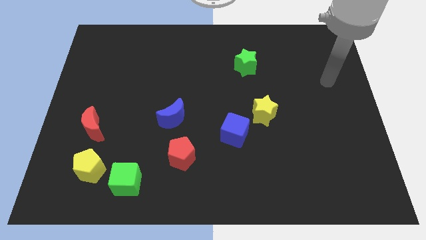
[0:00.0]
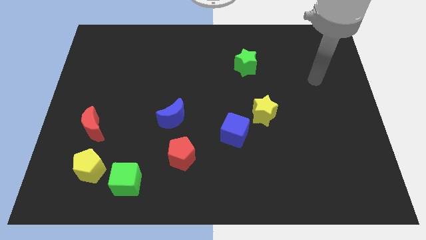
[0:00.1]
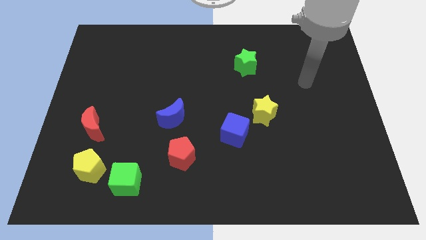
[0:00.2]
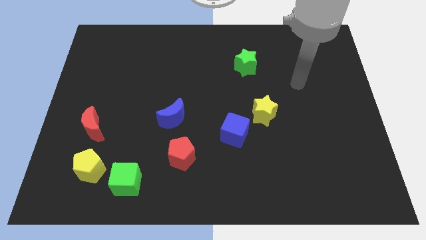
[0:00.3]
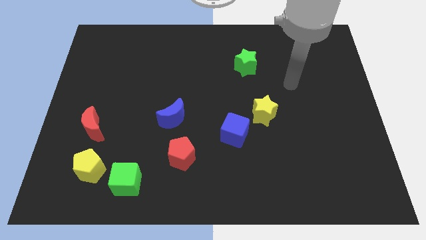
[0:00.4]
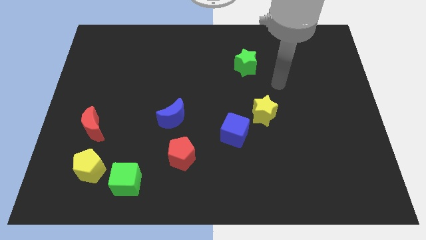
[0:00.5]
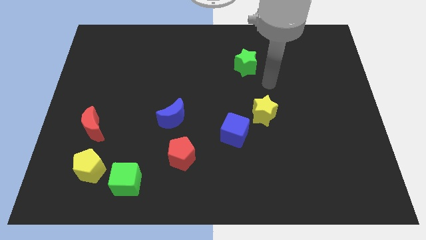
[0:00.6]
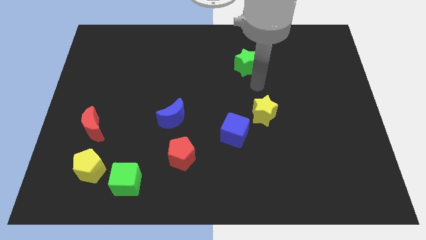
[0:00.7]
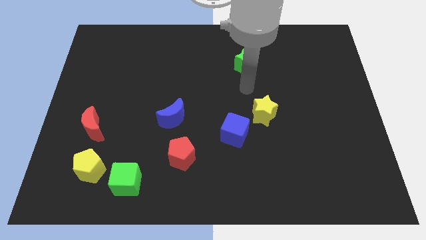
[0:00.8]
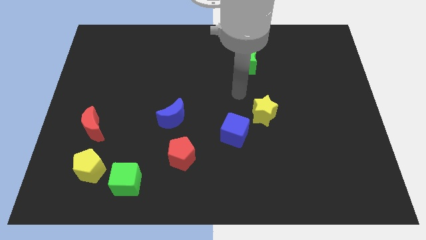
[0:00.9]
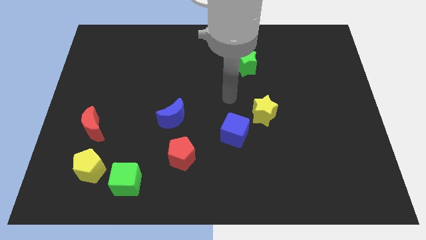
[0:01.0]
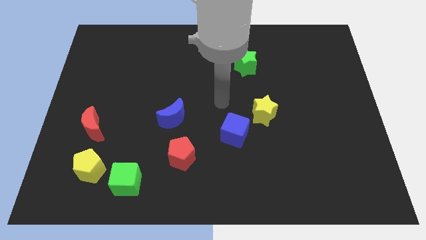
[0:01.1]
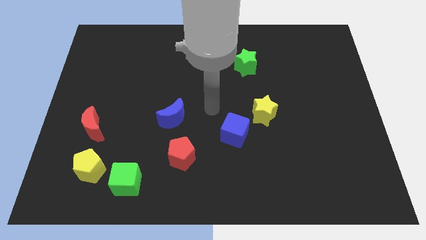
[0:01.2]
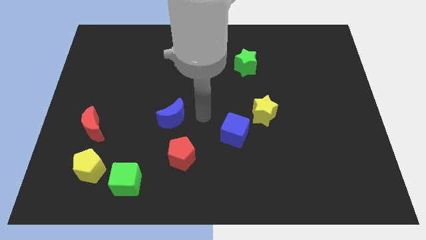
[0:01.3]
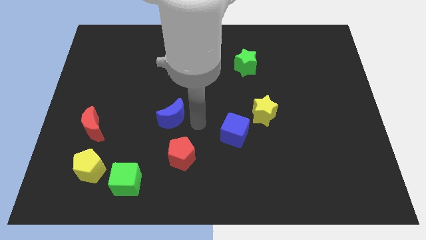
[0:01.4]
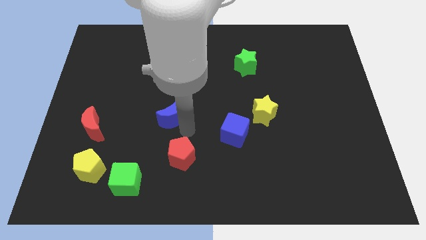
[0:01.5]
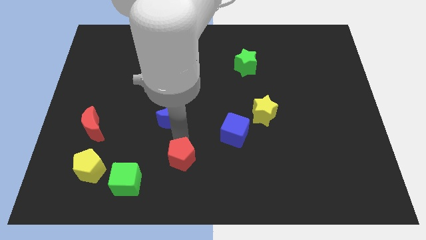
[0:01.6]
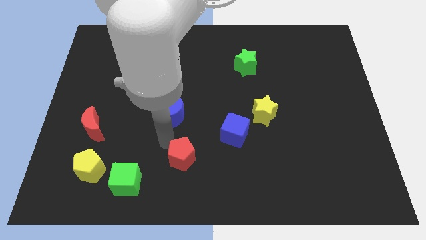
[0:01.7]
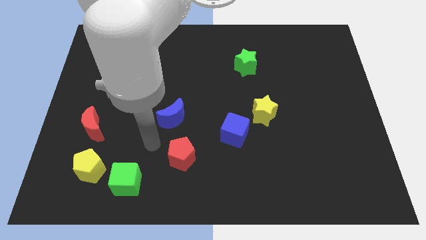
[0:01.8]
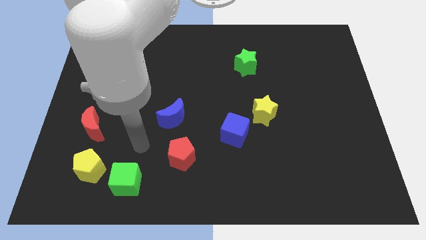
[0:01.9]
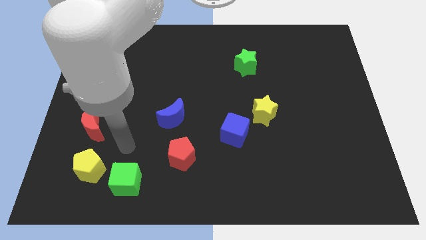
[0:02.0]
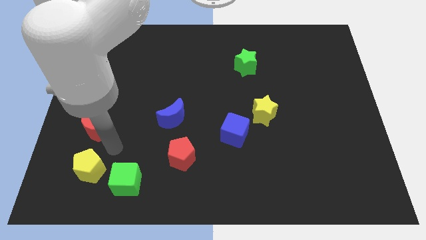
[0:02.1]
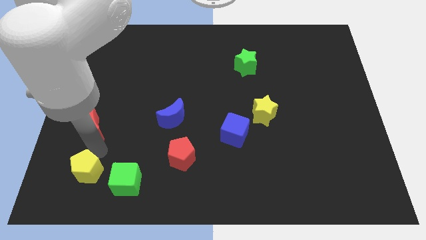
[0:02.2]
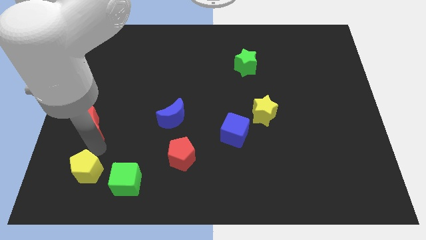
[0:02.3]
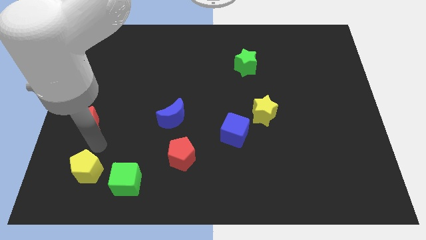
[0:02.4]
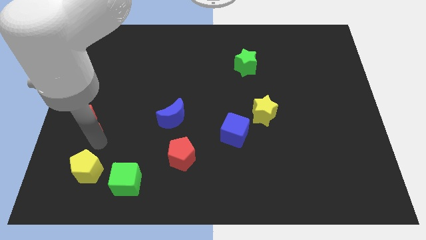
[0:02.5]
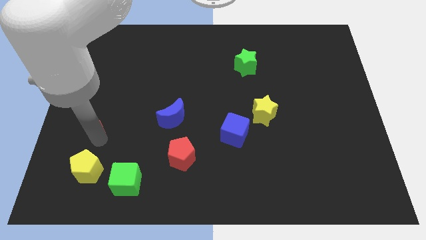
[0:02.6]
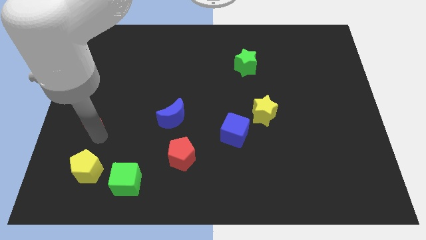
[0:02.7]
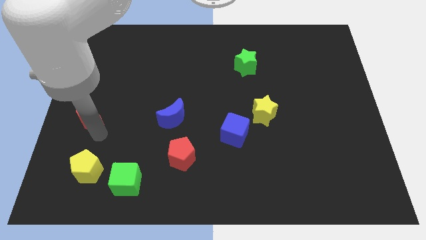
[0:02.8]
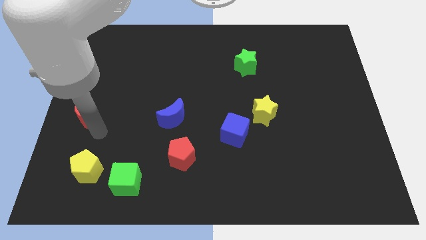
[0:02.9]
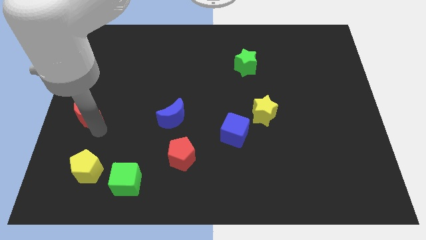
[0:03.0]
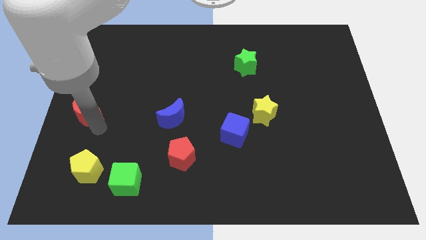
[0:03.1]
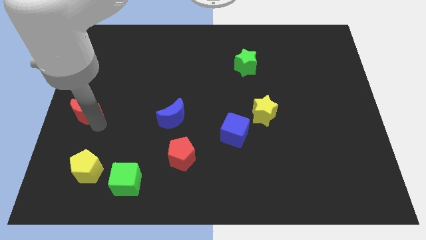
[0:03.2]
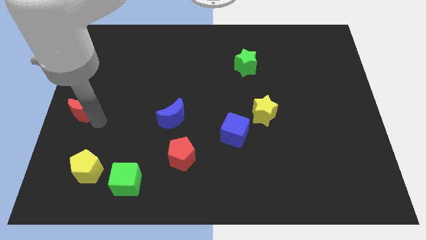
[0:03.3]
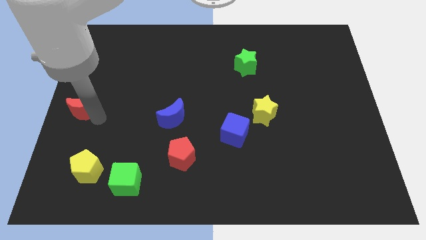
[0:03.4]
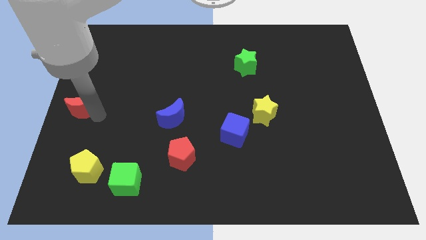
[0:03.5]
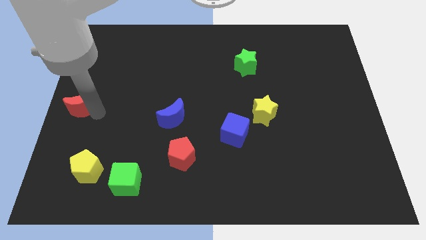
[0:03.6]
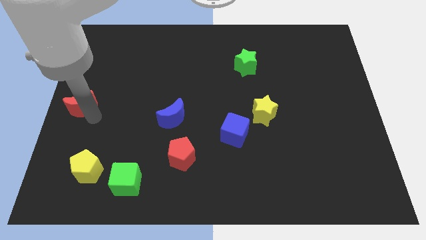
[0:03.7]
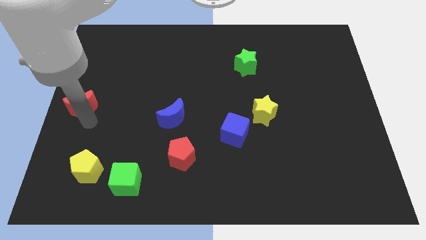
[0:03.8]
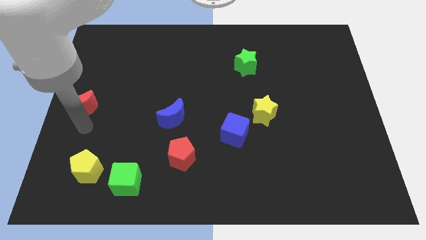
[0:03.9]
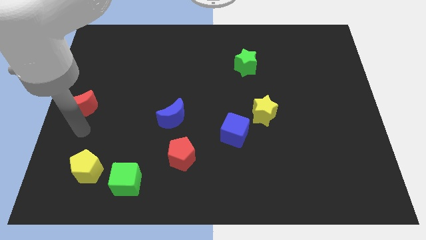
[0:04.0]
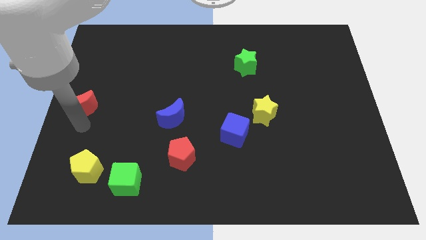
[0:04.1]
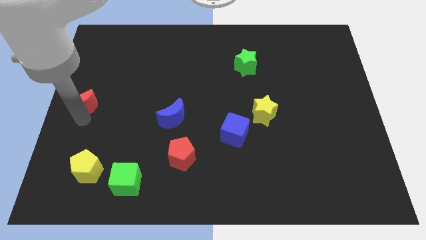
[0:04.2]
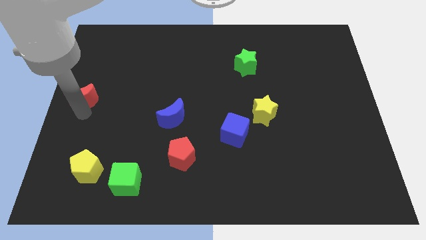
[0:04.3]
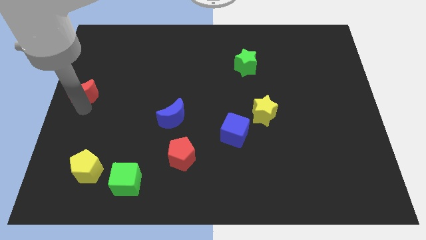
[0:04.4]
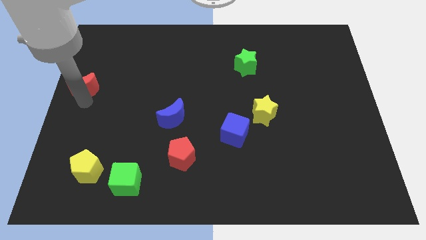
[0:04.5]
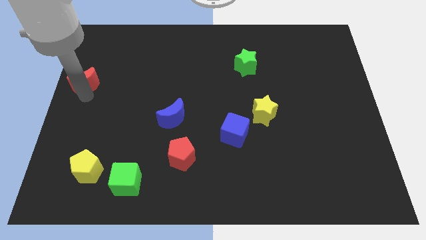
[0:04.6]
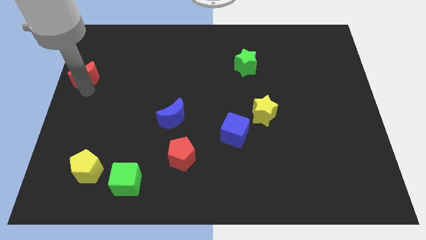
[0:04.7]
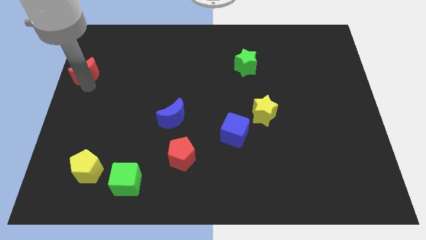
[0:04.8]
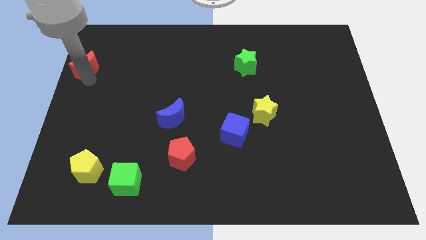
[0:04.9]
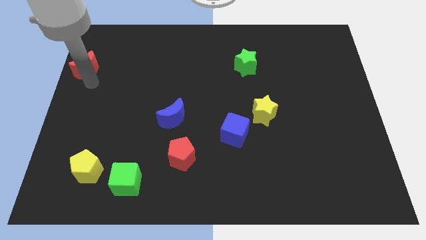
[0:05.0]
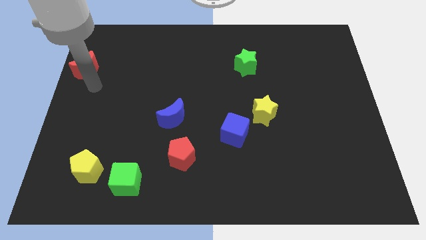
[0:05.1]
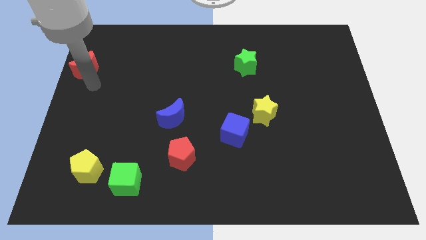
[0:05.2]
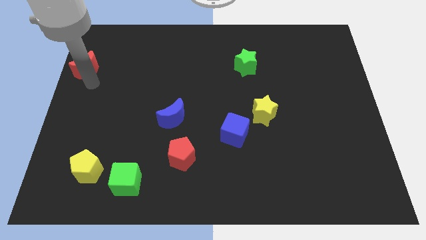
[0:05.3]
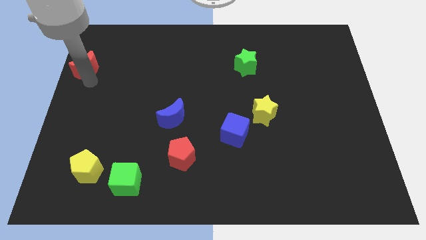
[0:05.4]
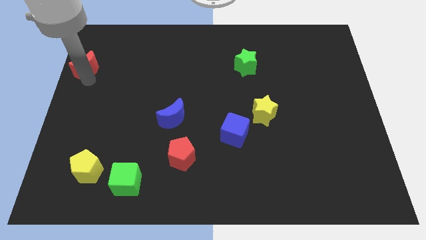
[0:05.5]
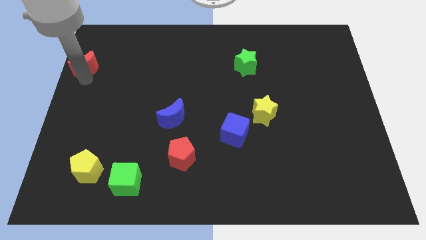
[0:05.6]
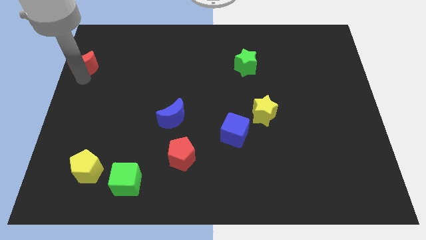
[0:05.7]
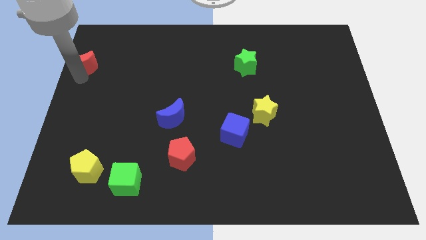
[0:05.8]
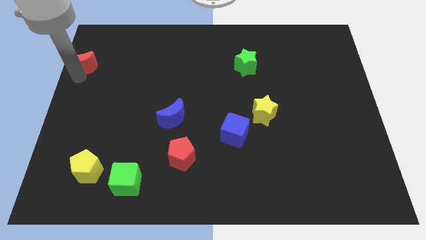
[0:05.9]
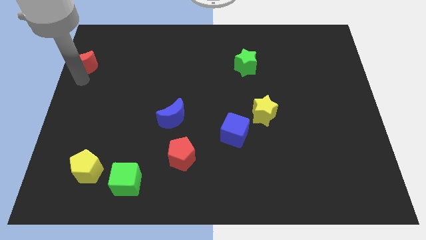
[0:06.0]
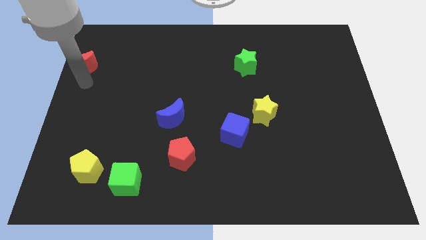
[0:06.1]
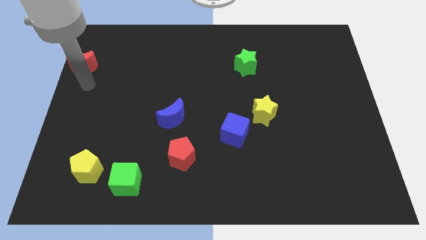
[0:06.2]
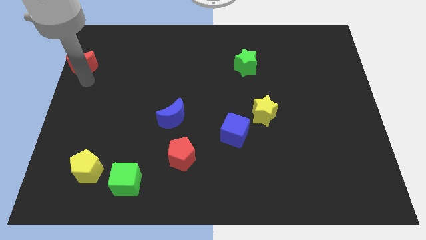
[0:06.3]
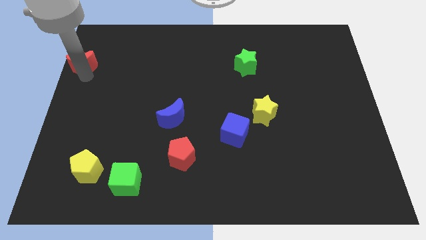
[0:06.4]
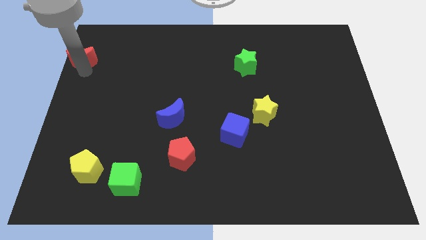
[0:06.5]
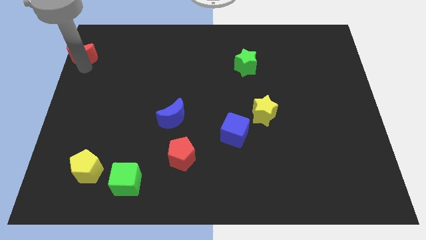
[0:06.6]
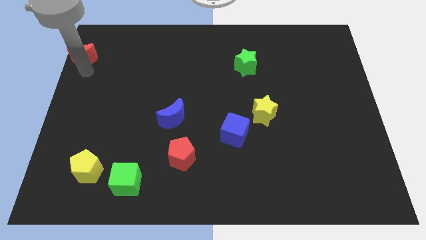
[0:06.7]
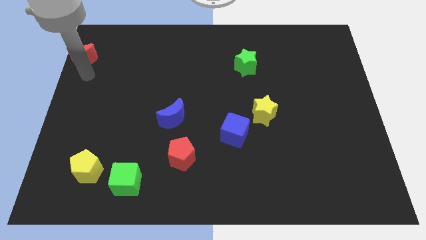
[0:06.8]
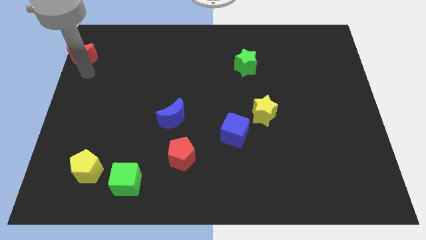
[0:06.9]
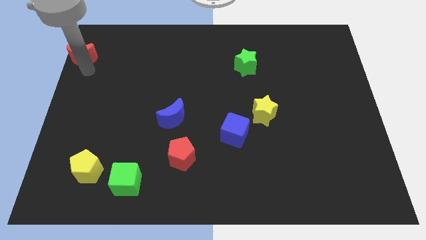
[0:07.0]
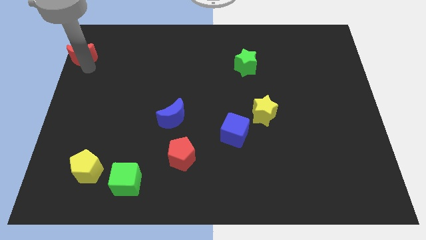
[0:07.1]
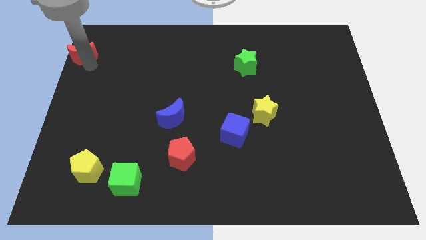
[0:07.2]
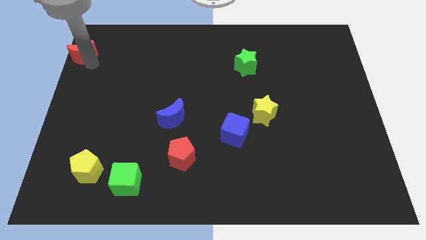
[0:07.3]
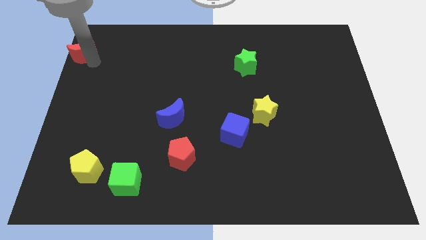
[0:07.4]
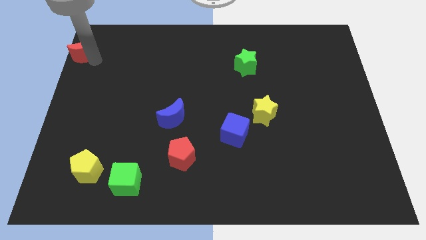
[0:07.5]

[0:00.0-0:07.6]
move the red moon to the upper left corner
